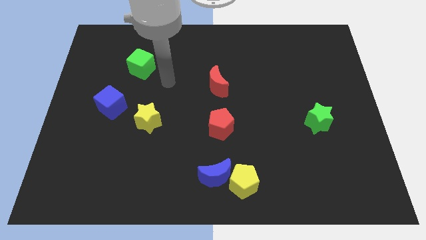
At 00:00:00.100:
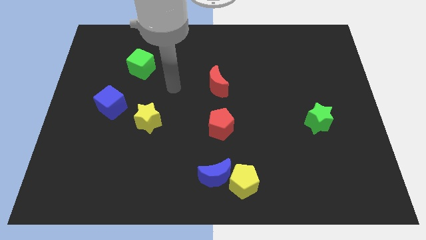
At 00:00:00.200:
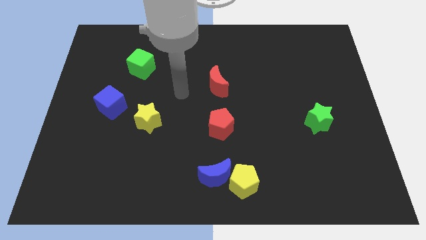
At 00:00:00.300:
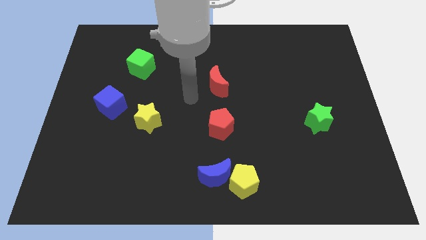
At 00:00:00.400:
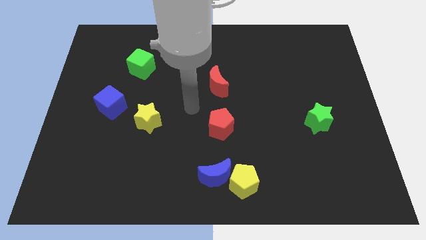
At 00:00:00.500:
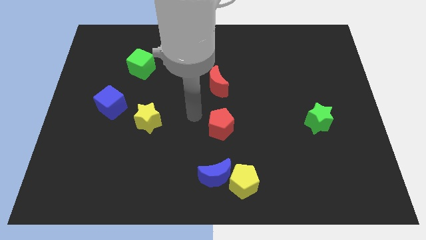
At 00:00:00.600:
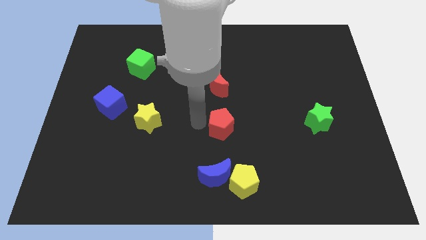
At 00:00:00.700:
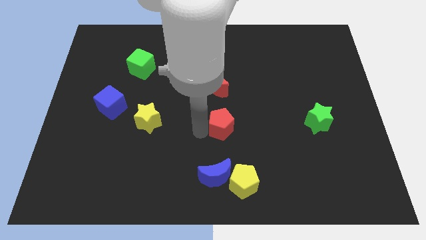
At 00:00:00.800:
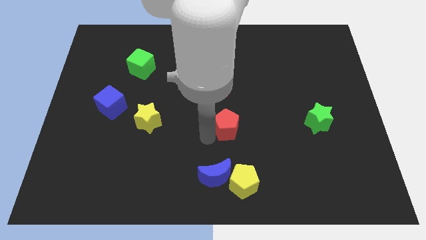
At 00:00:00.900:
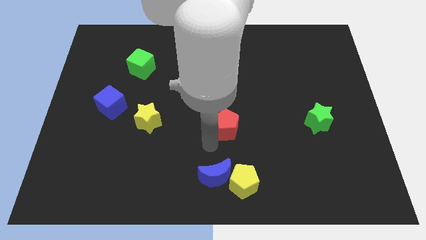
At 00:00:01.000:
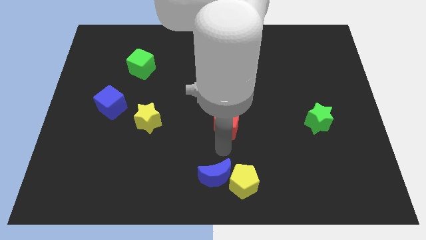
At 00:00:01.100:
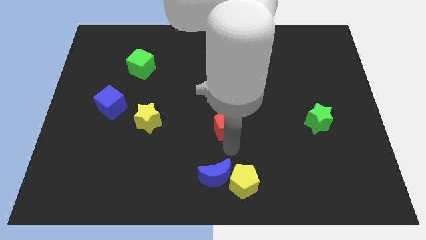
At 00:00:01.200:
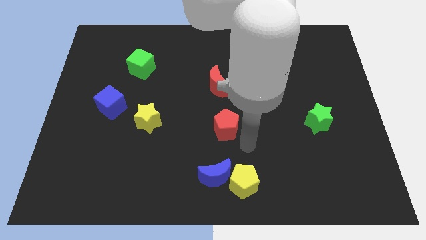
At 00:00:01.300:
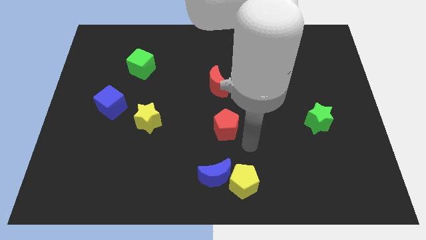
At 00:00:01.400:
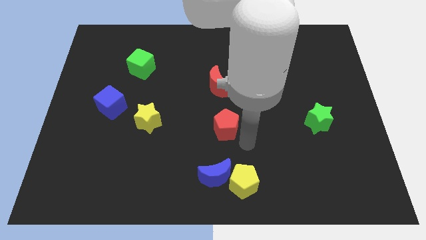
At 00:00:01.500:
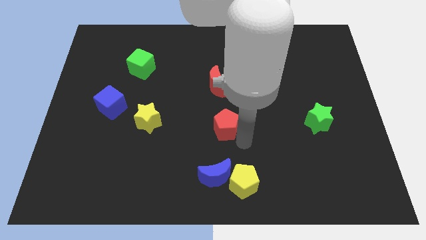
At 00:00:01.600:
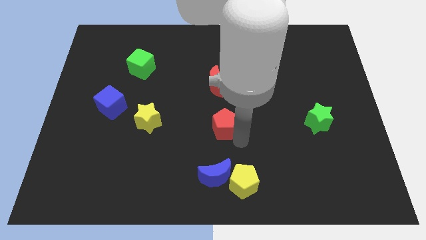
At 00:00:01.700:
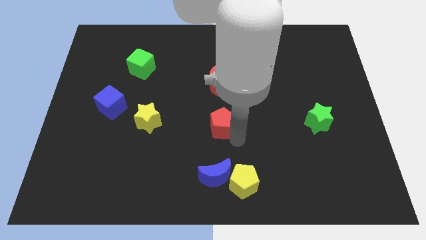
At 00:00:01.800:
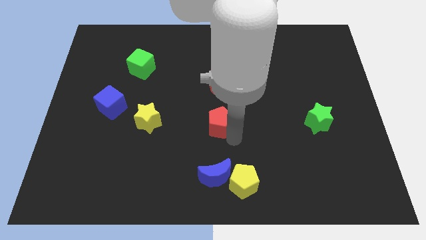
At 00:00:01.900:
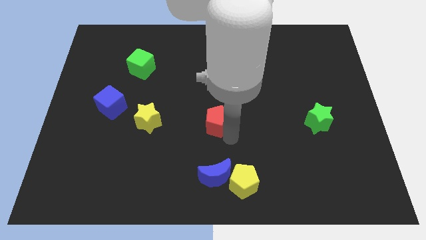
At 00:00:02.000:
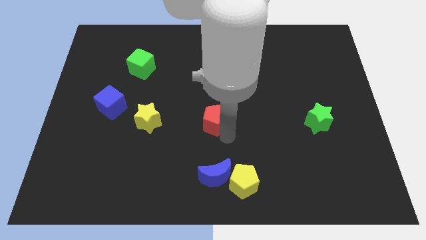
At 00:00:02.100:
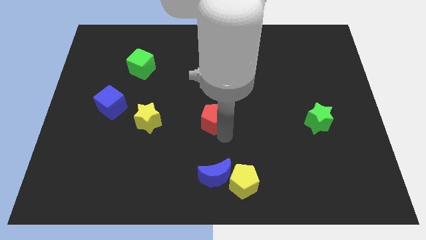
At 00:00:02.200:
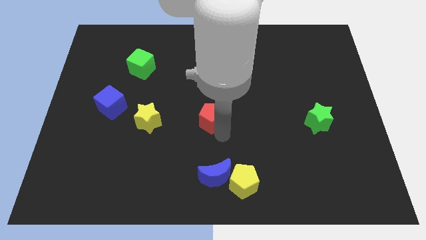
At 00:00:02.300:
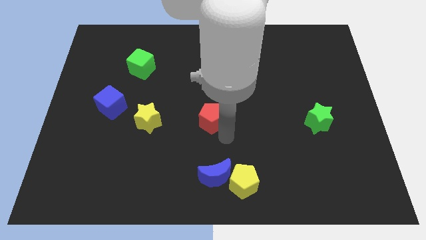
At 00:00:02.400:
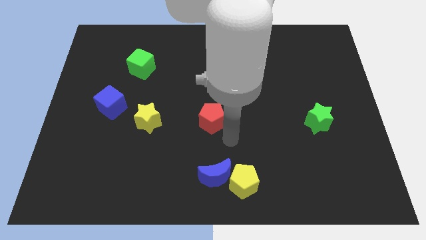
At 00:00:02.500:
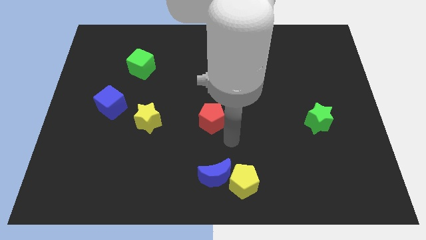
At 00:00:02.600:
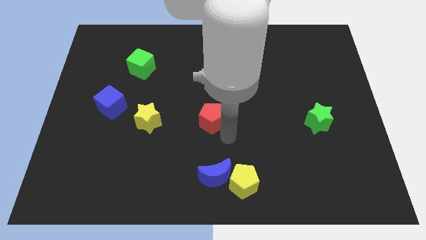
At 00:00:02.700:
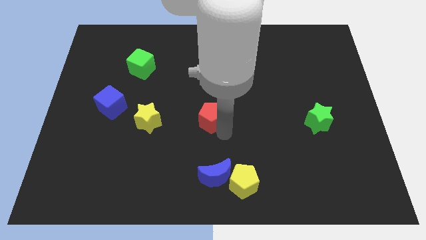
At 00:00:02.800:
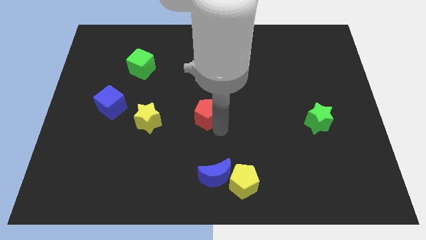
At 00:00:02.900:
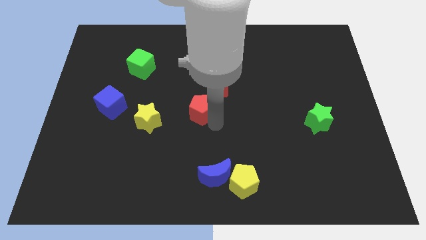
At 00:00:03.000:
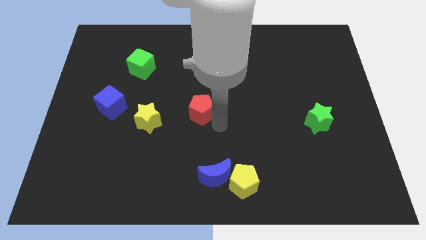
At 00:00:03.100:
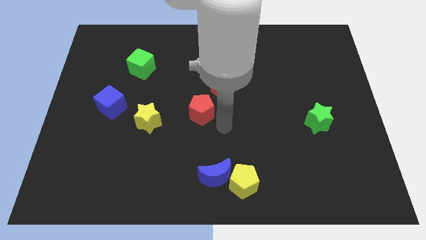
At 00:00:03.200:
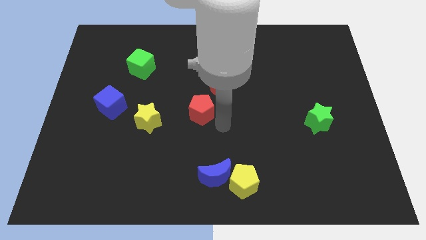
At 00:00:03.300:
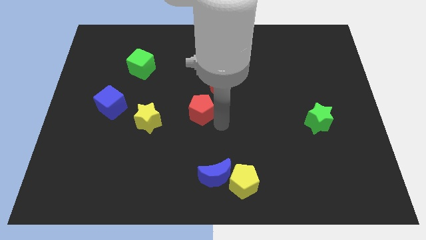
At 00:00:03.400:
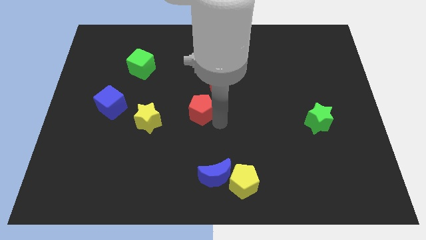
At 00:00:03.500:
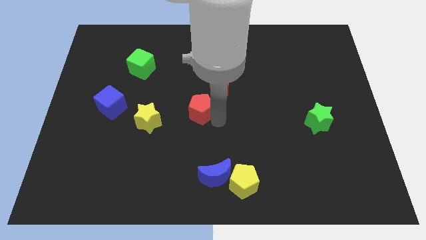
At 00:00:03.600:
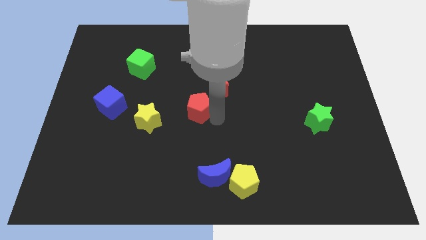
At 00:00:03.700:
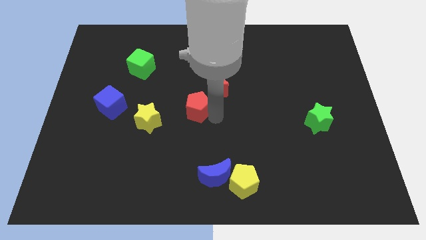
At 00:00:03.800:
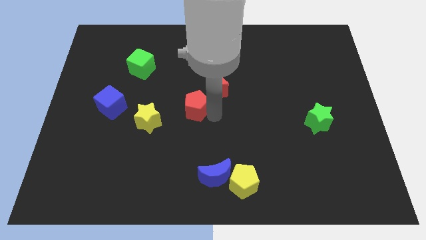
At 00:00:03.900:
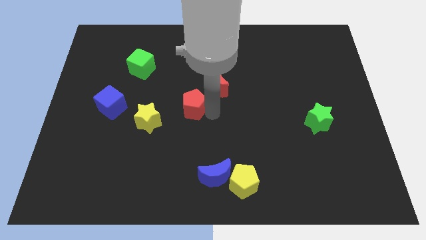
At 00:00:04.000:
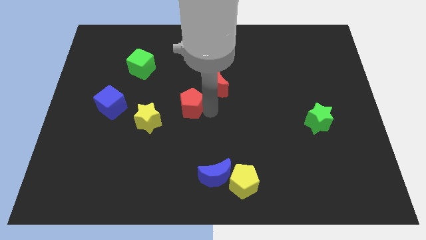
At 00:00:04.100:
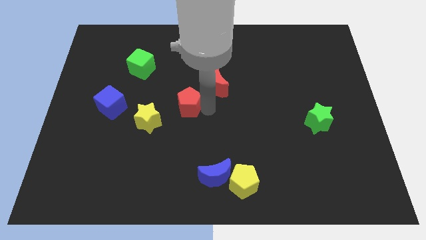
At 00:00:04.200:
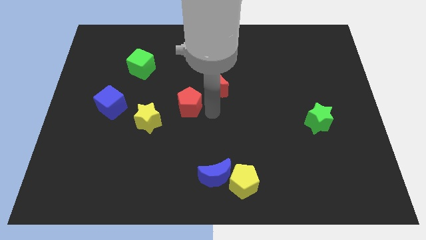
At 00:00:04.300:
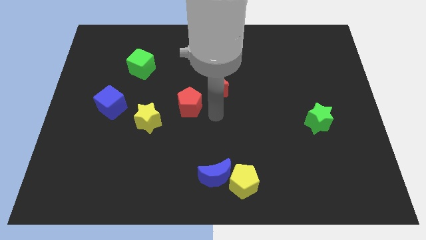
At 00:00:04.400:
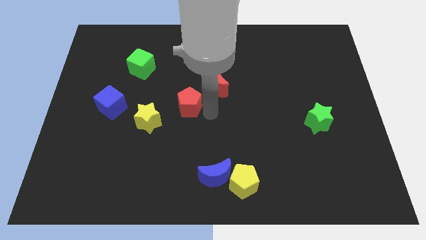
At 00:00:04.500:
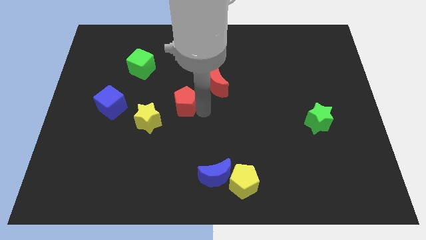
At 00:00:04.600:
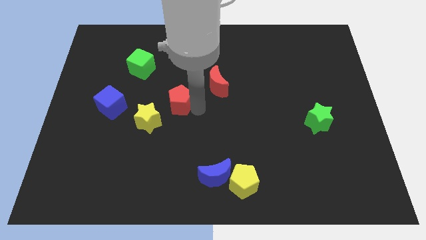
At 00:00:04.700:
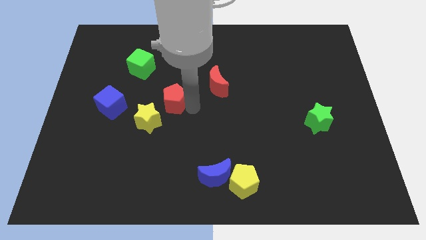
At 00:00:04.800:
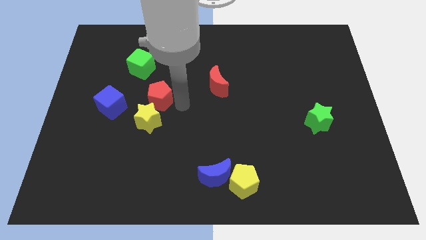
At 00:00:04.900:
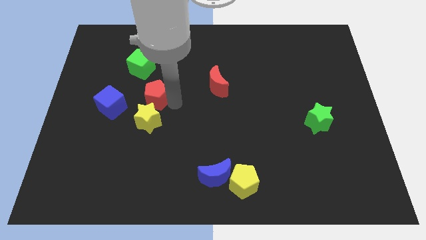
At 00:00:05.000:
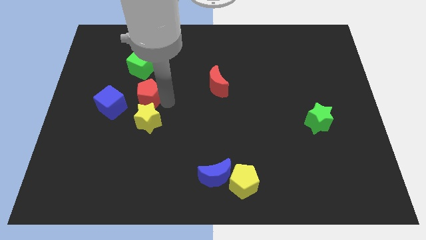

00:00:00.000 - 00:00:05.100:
put the red pentagon diagonally up and to the right of the blue cube

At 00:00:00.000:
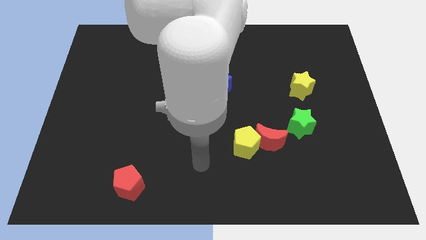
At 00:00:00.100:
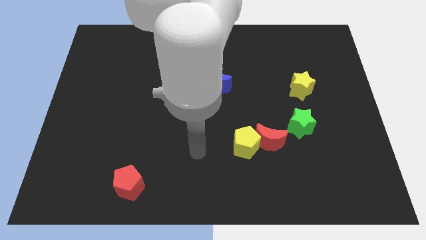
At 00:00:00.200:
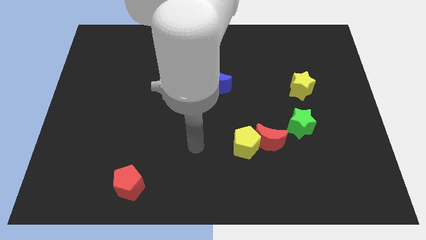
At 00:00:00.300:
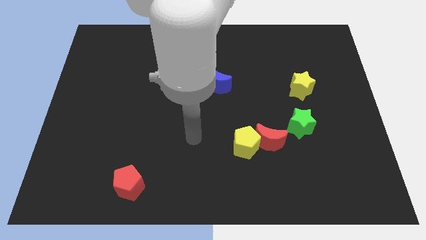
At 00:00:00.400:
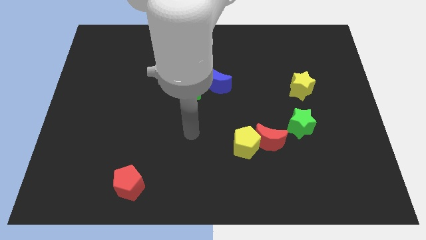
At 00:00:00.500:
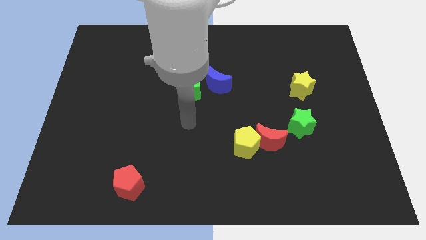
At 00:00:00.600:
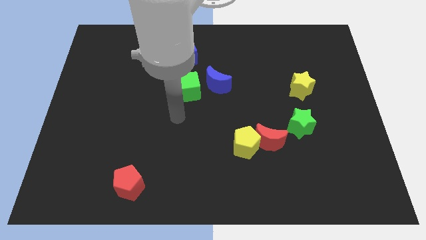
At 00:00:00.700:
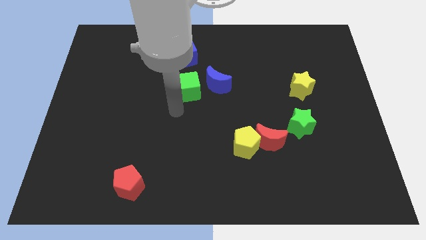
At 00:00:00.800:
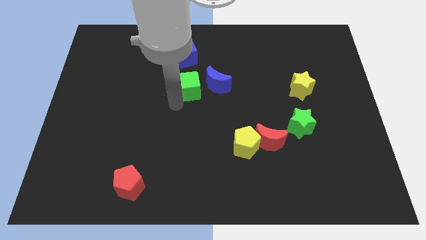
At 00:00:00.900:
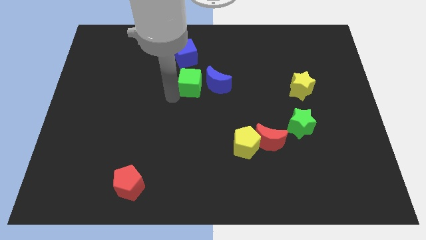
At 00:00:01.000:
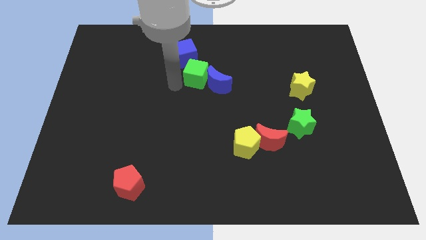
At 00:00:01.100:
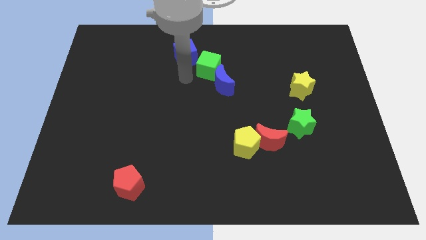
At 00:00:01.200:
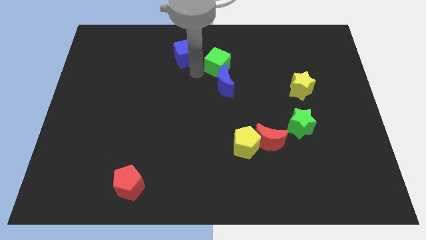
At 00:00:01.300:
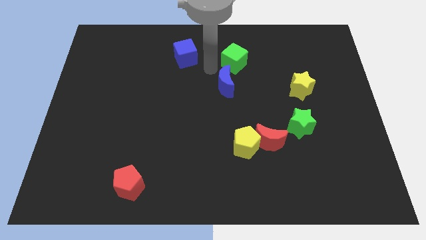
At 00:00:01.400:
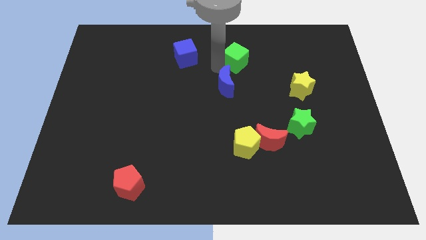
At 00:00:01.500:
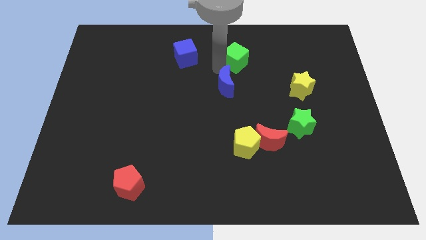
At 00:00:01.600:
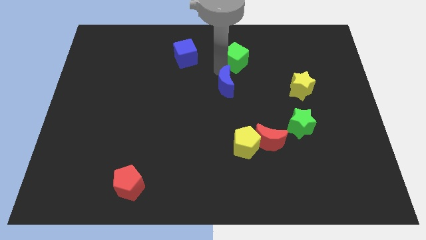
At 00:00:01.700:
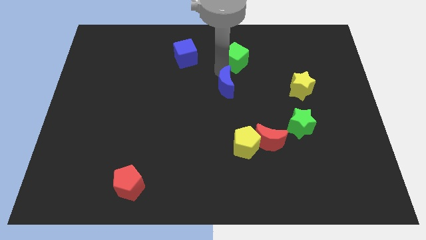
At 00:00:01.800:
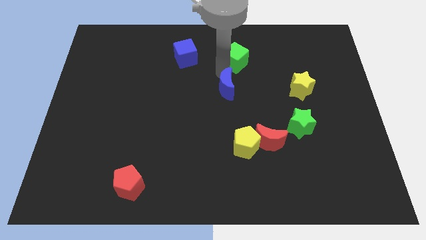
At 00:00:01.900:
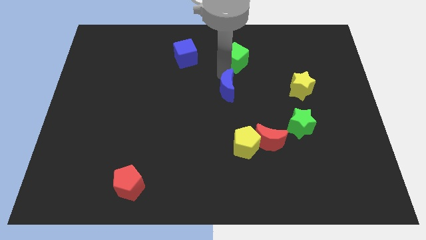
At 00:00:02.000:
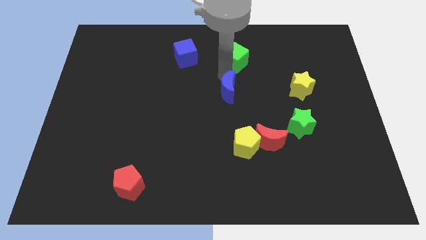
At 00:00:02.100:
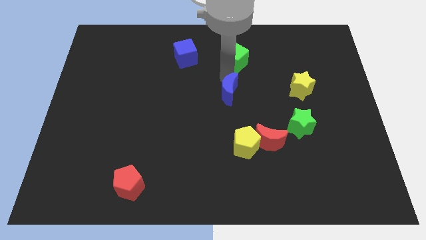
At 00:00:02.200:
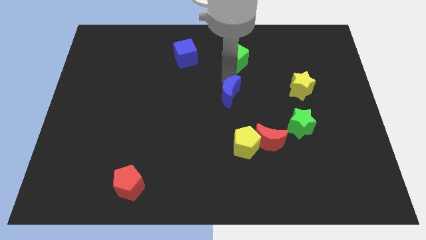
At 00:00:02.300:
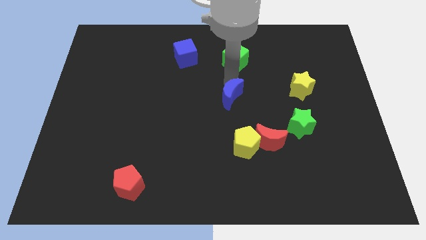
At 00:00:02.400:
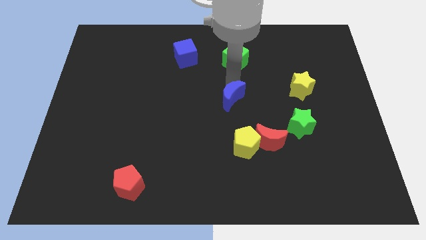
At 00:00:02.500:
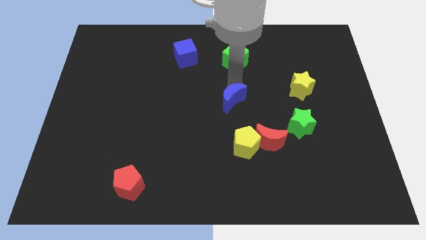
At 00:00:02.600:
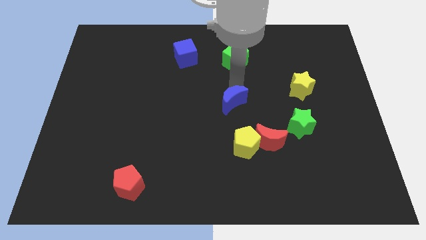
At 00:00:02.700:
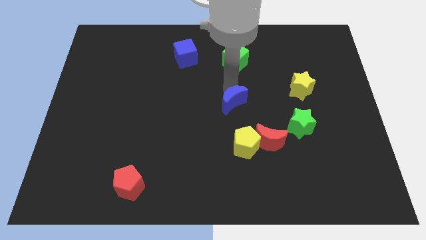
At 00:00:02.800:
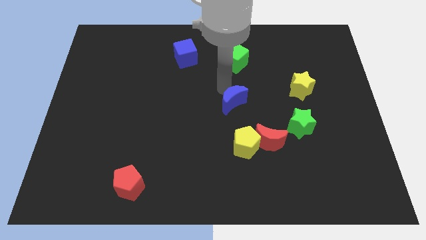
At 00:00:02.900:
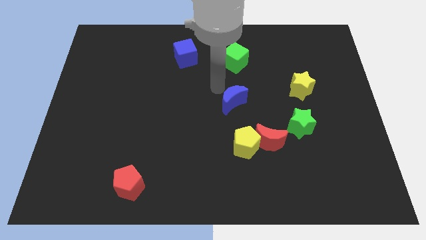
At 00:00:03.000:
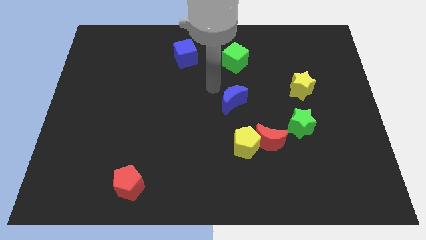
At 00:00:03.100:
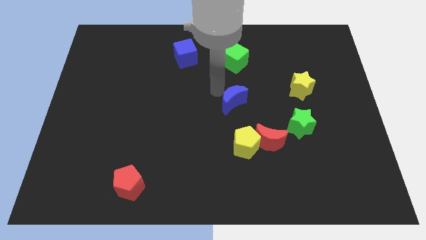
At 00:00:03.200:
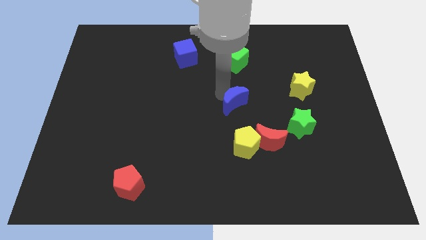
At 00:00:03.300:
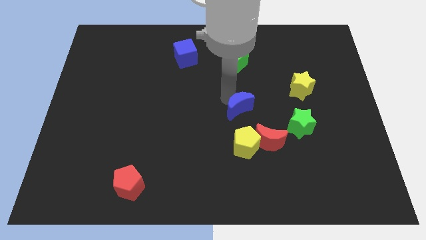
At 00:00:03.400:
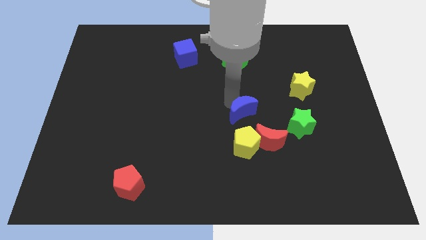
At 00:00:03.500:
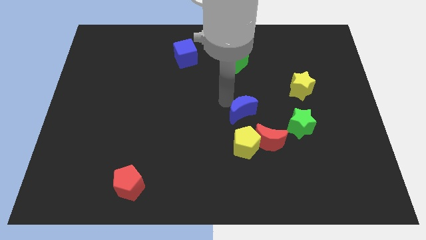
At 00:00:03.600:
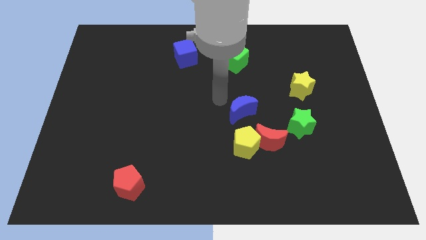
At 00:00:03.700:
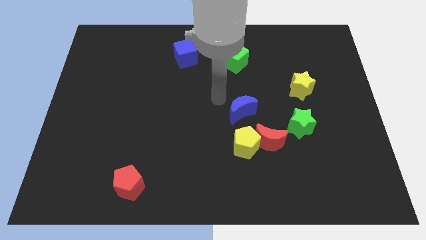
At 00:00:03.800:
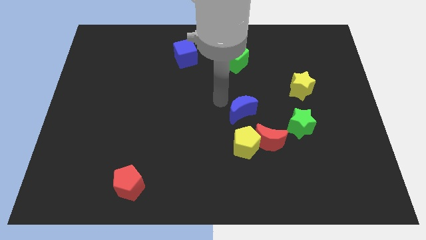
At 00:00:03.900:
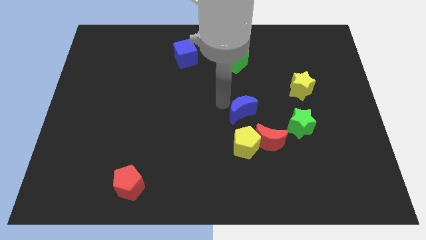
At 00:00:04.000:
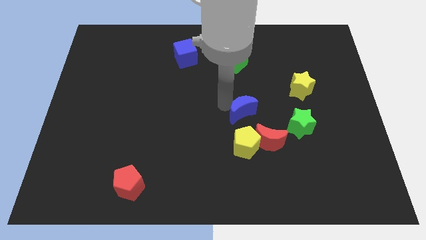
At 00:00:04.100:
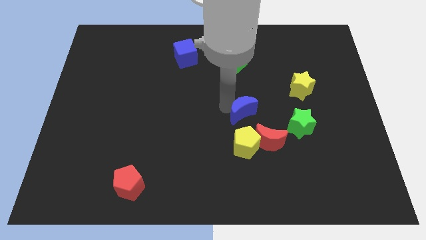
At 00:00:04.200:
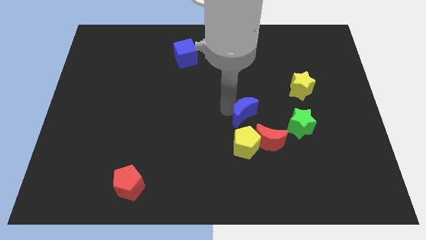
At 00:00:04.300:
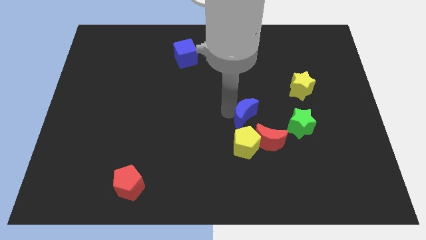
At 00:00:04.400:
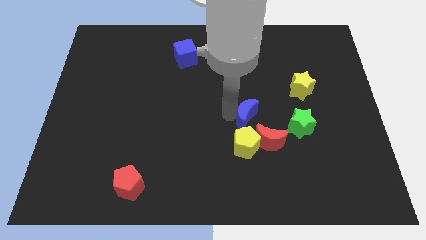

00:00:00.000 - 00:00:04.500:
move the blue moon diagonally up and to the right of the yellow pentagon
